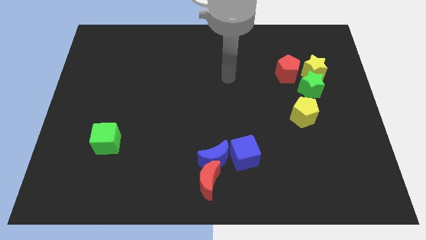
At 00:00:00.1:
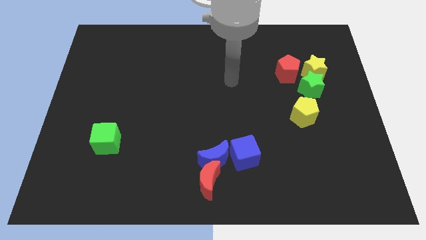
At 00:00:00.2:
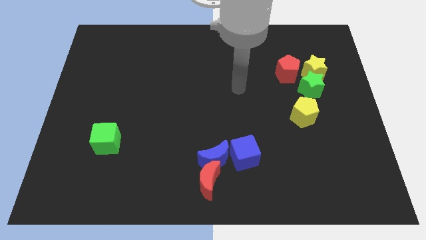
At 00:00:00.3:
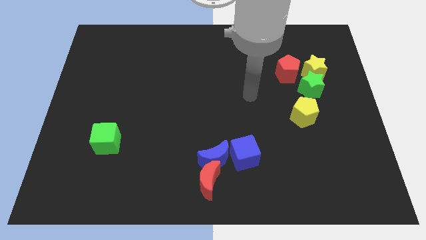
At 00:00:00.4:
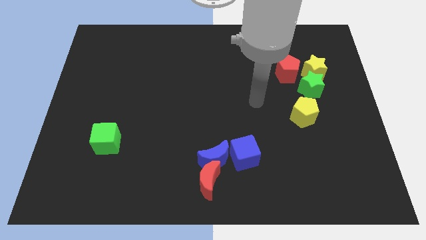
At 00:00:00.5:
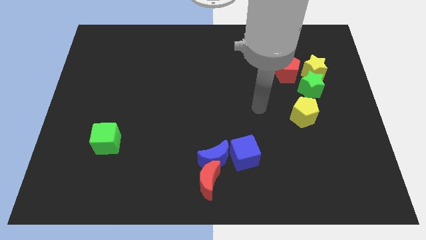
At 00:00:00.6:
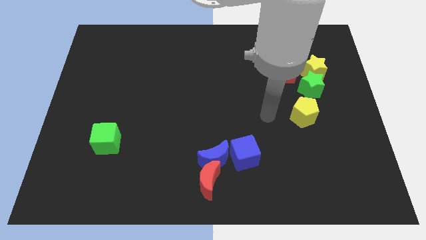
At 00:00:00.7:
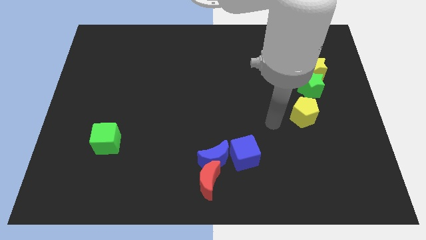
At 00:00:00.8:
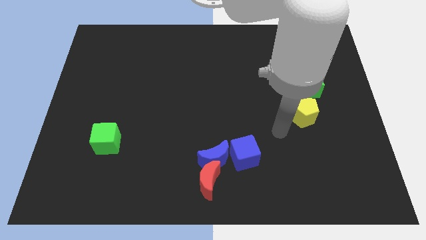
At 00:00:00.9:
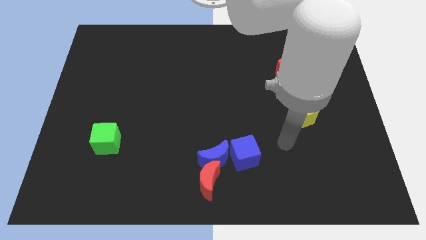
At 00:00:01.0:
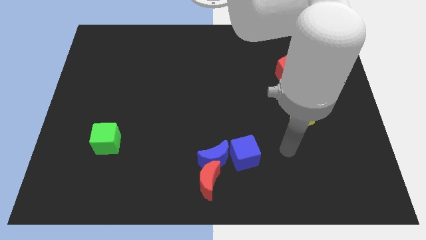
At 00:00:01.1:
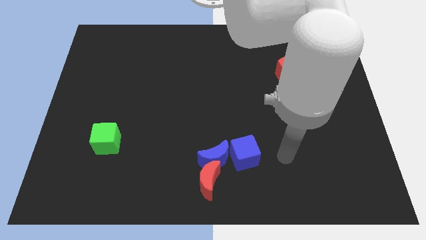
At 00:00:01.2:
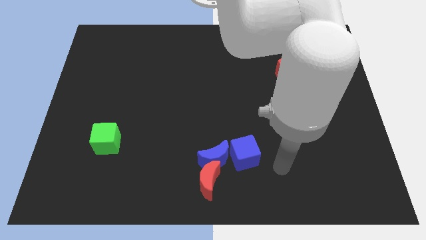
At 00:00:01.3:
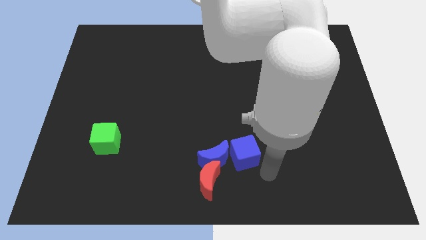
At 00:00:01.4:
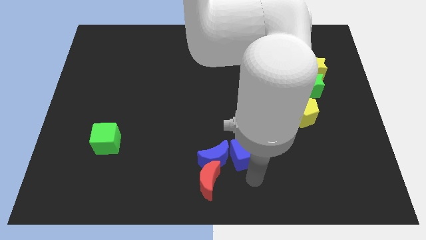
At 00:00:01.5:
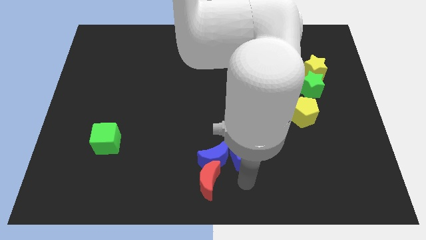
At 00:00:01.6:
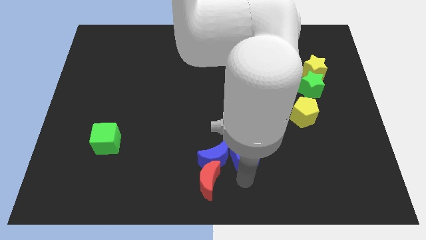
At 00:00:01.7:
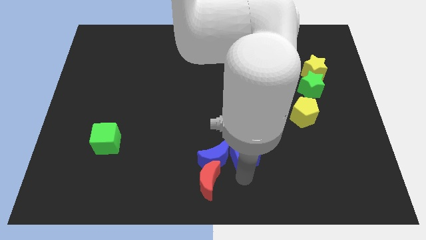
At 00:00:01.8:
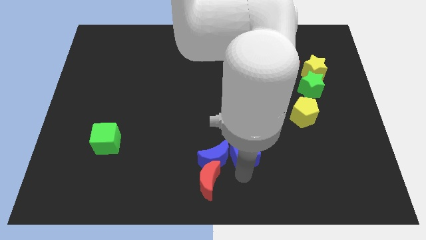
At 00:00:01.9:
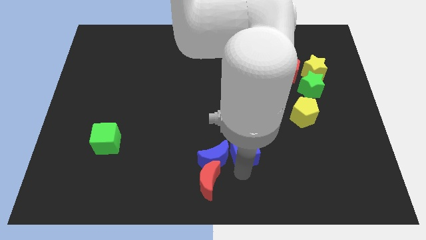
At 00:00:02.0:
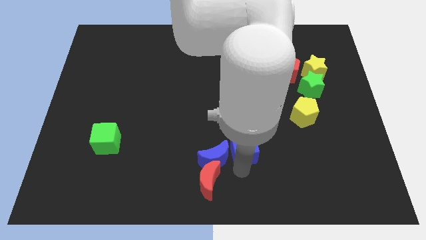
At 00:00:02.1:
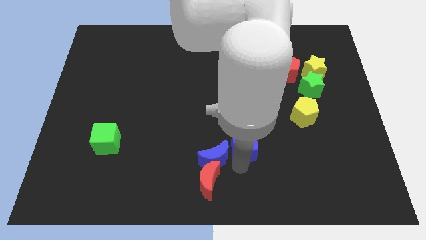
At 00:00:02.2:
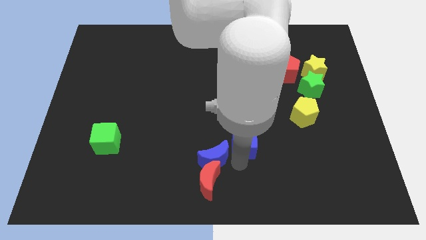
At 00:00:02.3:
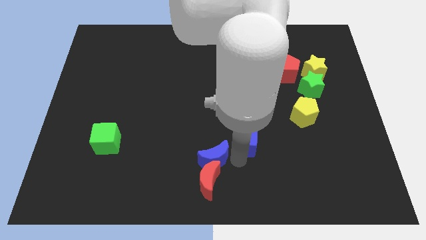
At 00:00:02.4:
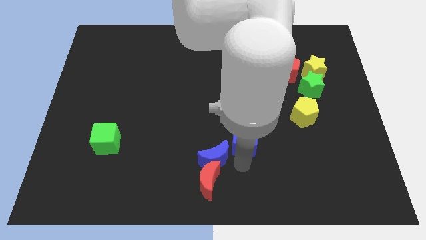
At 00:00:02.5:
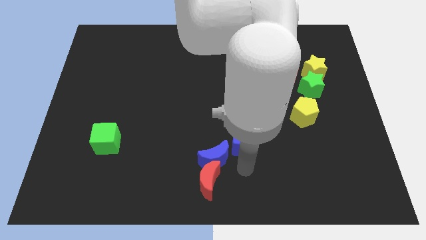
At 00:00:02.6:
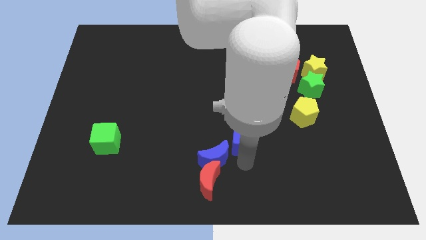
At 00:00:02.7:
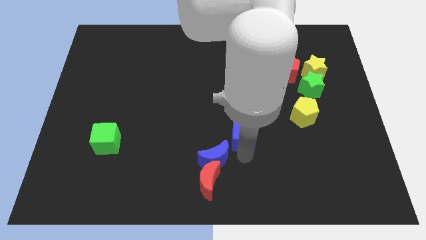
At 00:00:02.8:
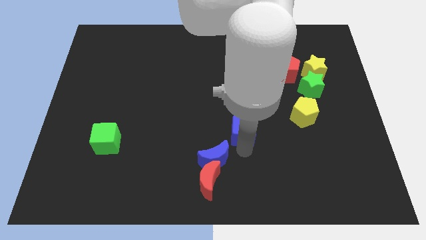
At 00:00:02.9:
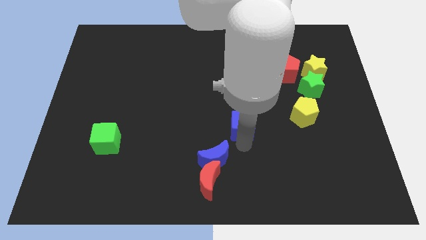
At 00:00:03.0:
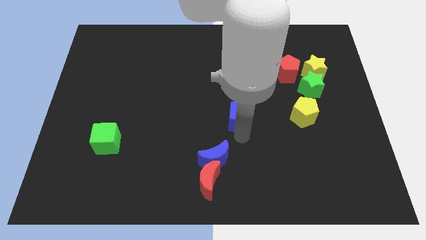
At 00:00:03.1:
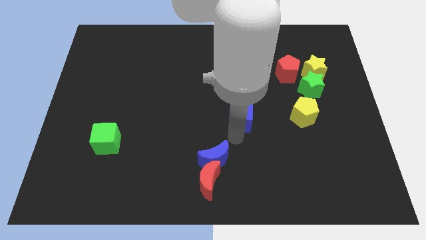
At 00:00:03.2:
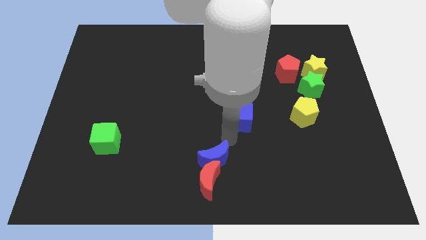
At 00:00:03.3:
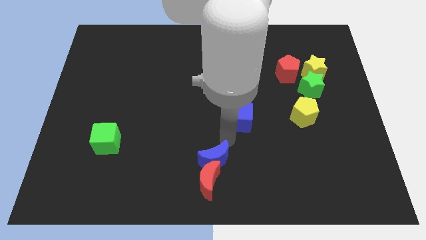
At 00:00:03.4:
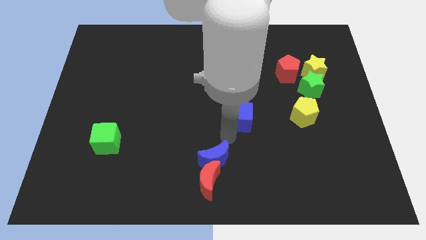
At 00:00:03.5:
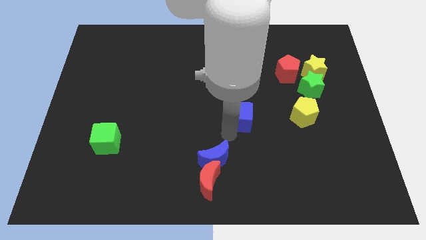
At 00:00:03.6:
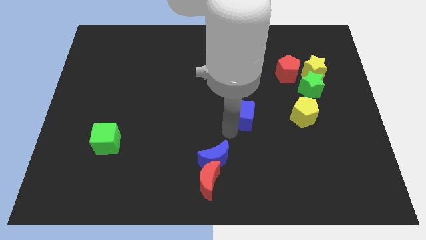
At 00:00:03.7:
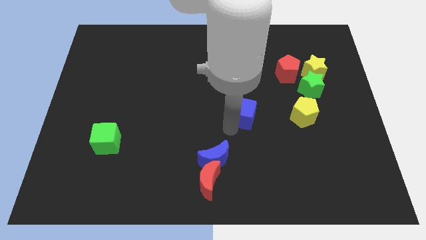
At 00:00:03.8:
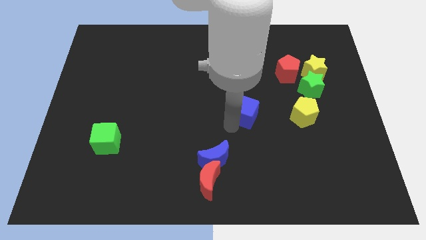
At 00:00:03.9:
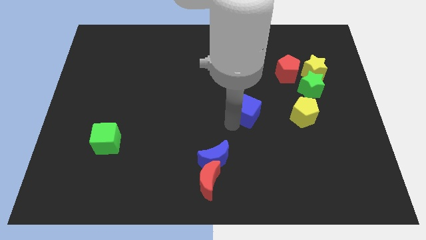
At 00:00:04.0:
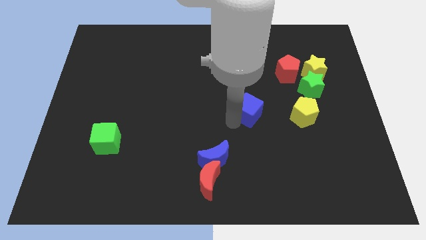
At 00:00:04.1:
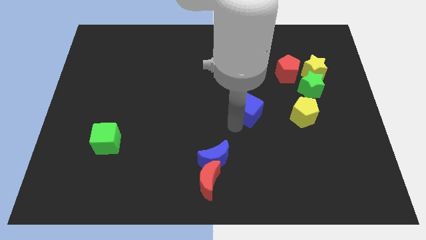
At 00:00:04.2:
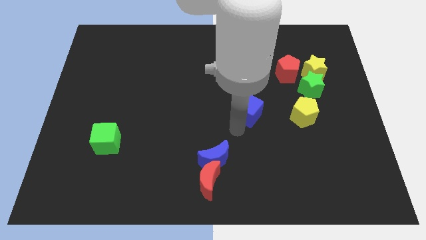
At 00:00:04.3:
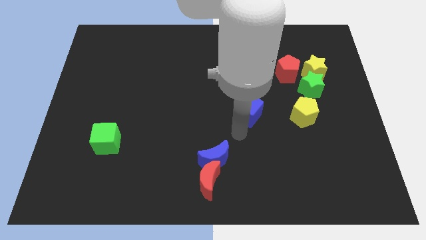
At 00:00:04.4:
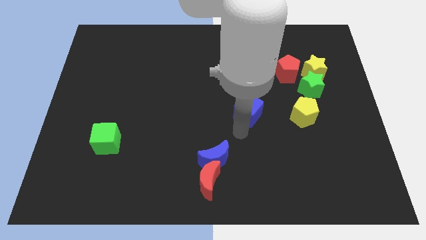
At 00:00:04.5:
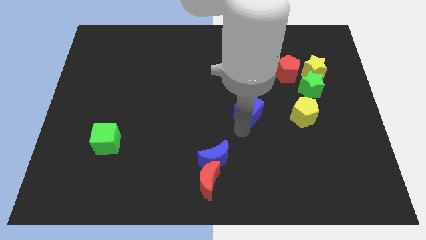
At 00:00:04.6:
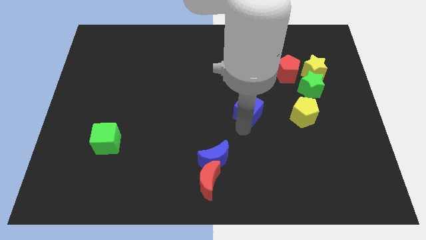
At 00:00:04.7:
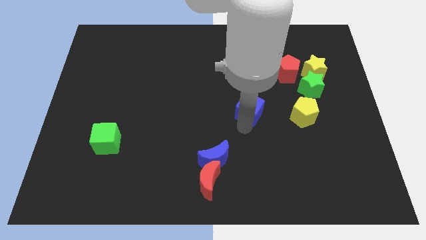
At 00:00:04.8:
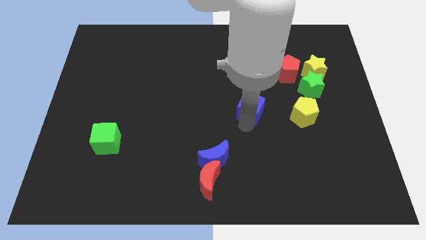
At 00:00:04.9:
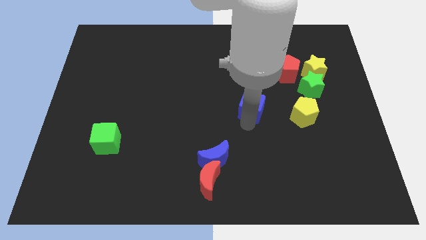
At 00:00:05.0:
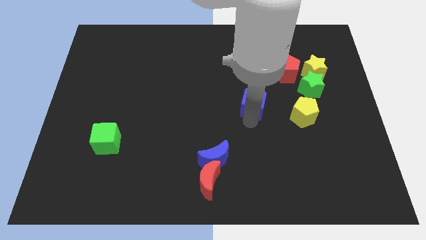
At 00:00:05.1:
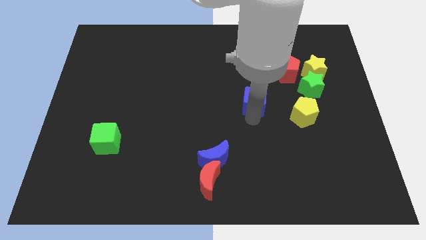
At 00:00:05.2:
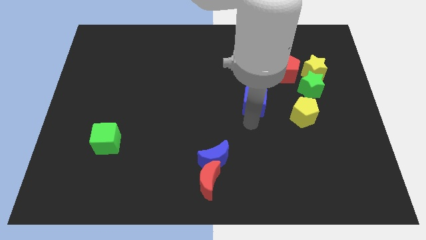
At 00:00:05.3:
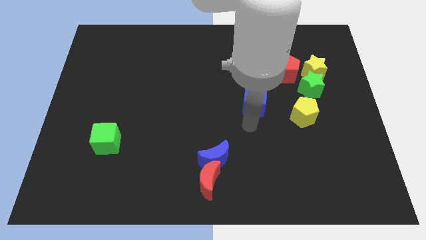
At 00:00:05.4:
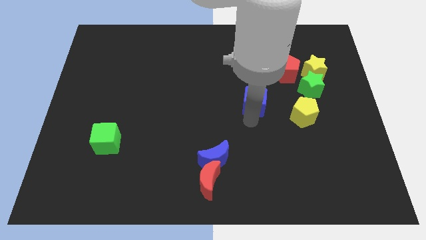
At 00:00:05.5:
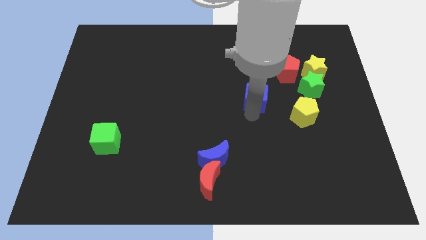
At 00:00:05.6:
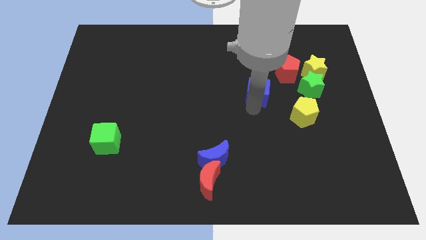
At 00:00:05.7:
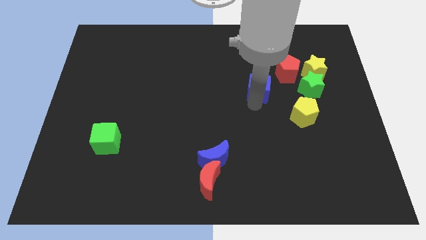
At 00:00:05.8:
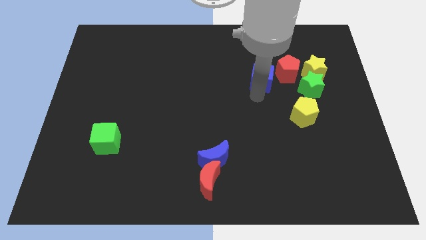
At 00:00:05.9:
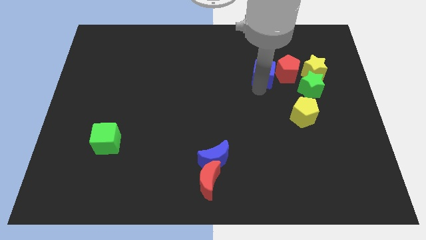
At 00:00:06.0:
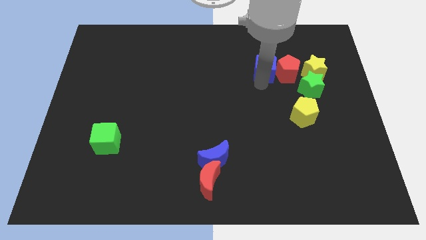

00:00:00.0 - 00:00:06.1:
slide the blue cube to the top left side of the red pentagon
